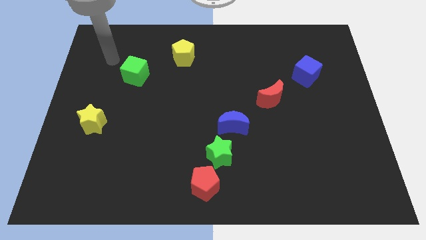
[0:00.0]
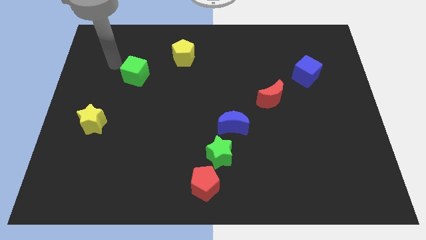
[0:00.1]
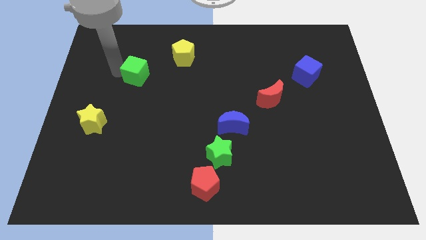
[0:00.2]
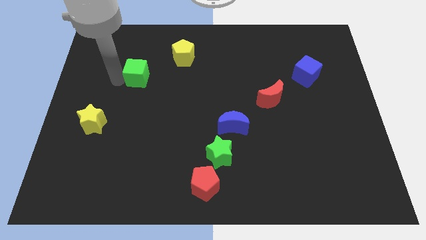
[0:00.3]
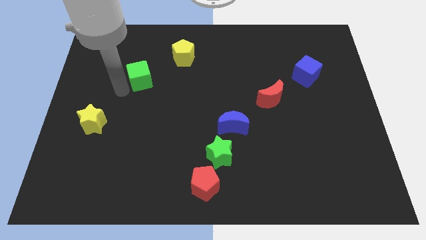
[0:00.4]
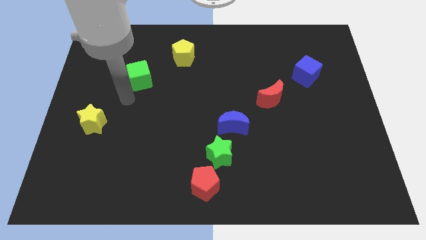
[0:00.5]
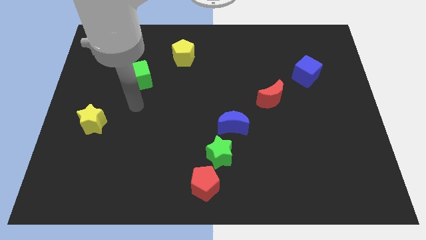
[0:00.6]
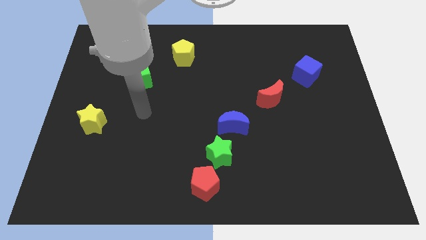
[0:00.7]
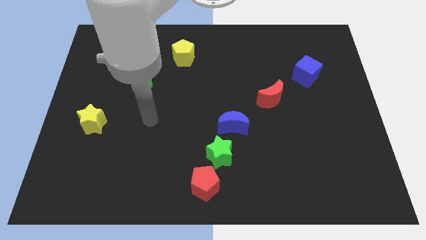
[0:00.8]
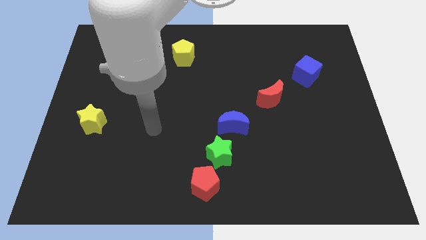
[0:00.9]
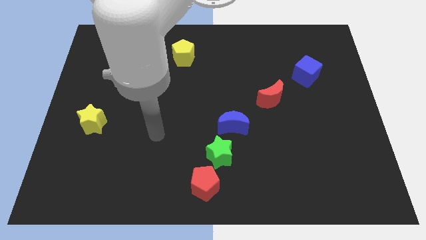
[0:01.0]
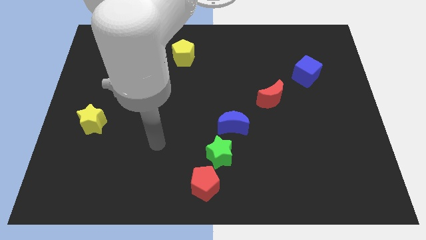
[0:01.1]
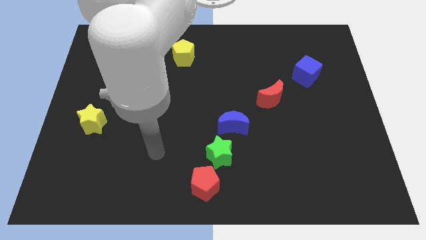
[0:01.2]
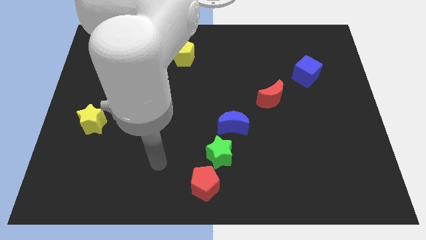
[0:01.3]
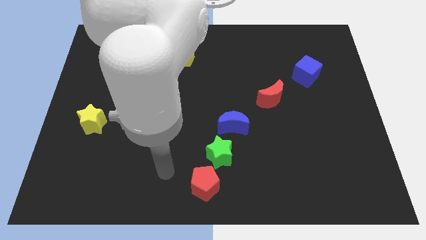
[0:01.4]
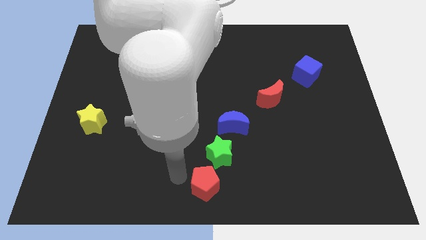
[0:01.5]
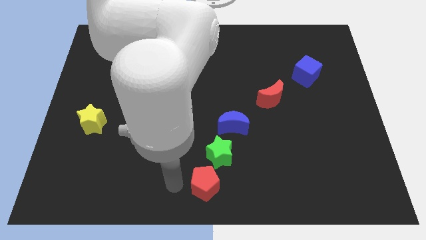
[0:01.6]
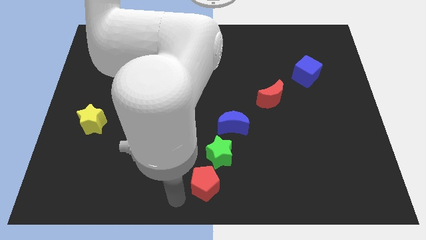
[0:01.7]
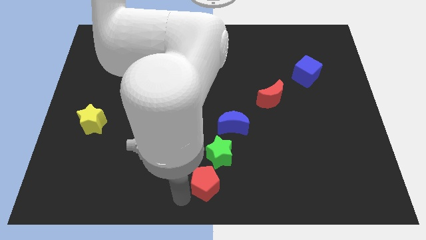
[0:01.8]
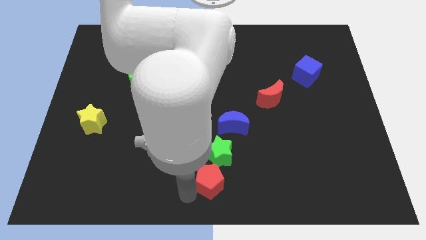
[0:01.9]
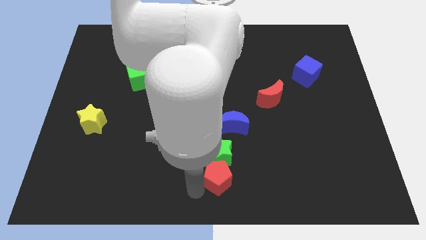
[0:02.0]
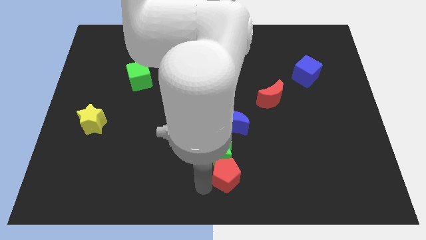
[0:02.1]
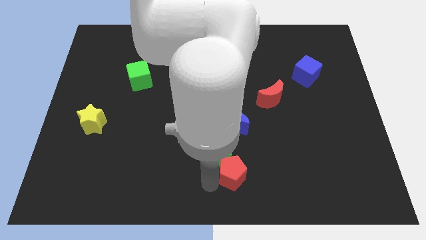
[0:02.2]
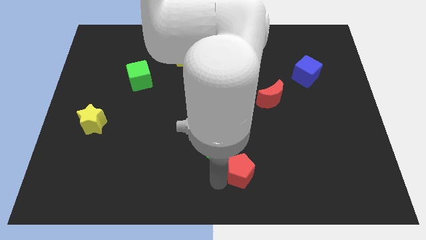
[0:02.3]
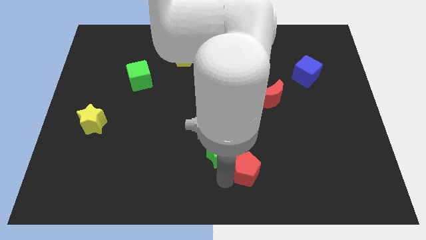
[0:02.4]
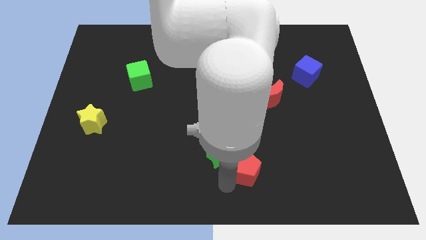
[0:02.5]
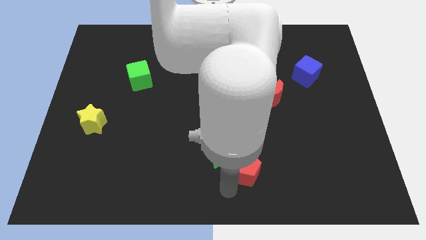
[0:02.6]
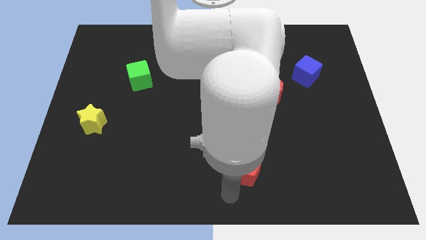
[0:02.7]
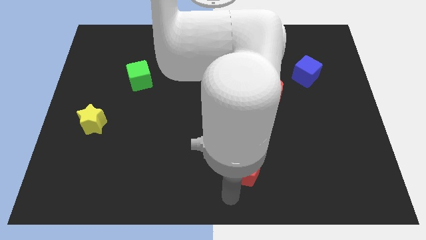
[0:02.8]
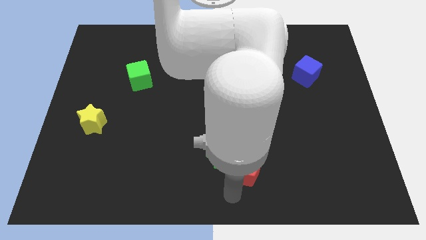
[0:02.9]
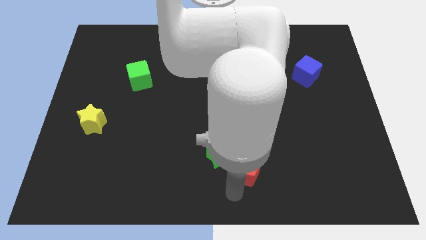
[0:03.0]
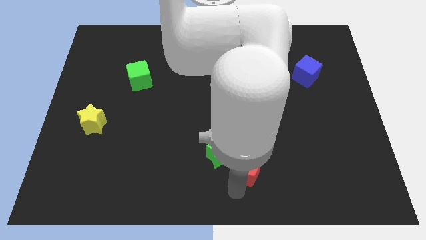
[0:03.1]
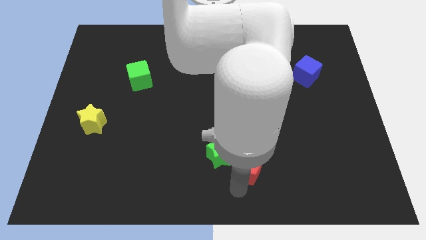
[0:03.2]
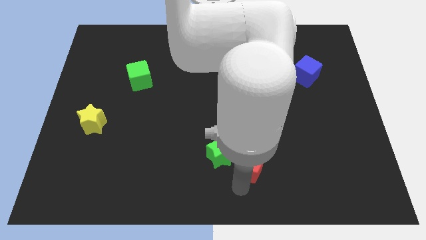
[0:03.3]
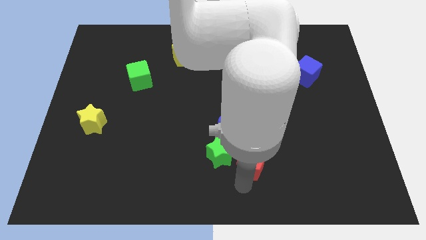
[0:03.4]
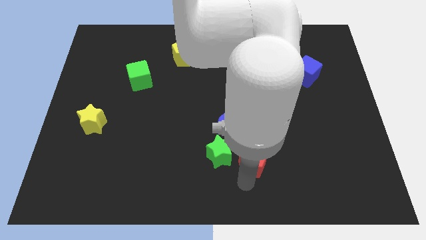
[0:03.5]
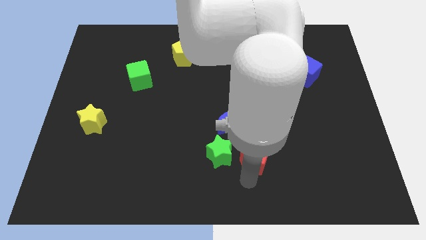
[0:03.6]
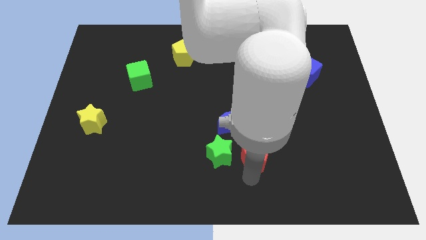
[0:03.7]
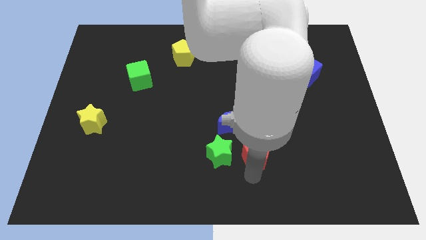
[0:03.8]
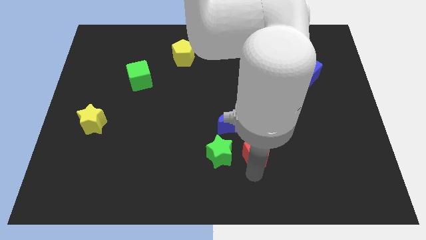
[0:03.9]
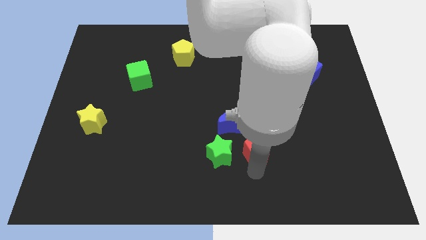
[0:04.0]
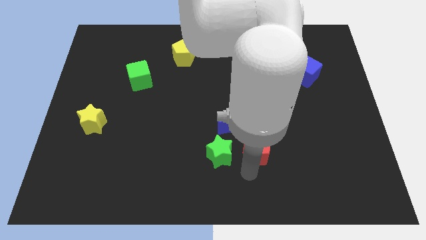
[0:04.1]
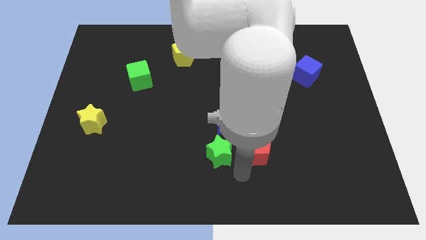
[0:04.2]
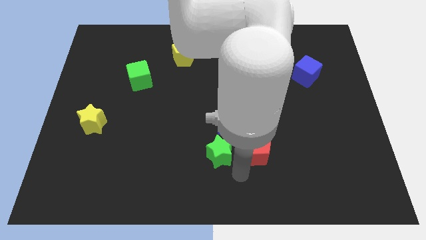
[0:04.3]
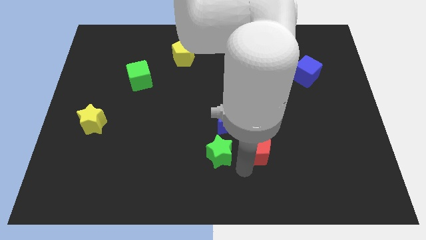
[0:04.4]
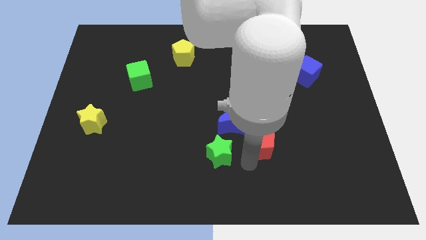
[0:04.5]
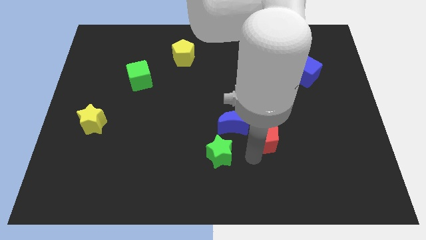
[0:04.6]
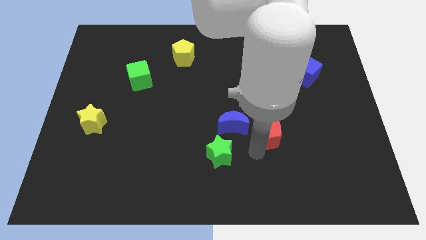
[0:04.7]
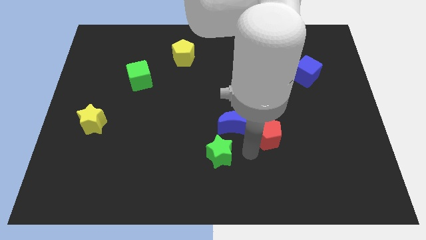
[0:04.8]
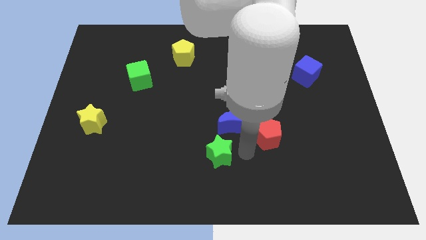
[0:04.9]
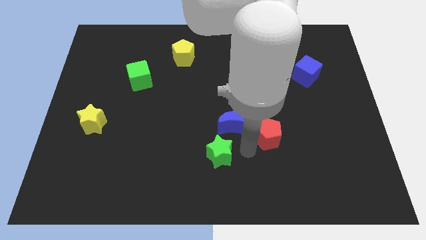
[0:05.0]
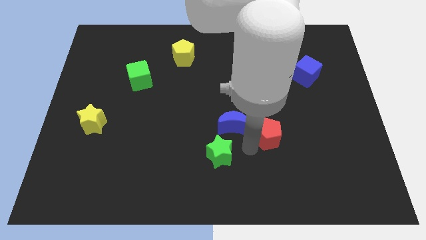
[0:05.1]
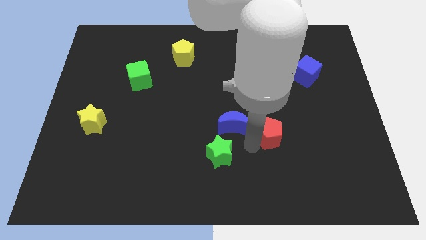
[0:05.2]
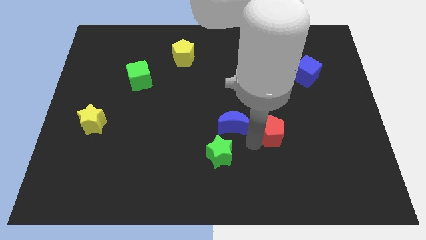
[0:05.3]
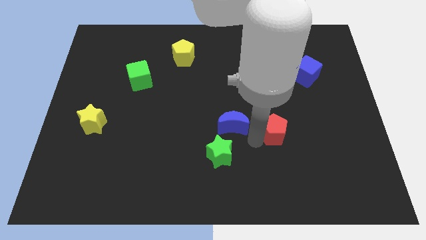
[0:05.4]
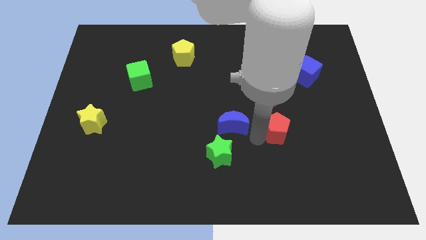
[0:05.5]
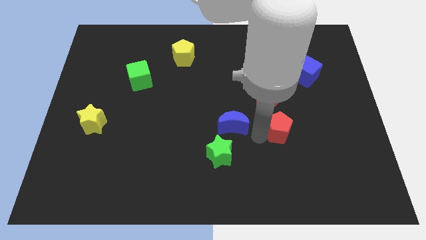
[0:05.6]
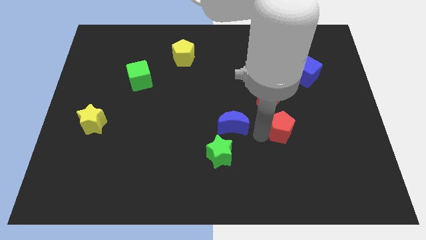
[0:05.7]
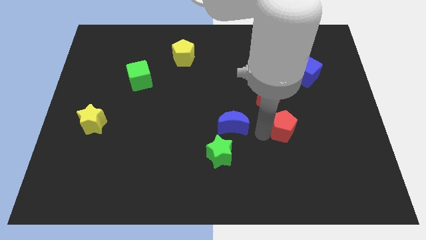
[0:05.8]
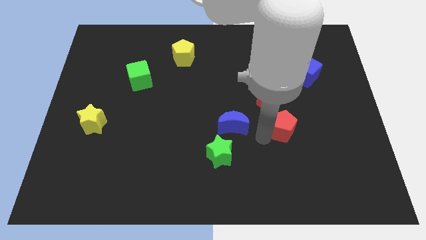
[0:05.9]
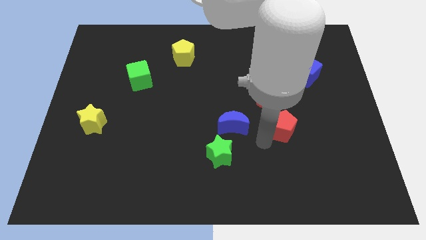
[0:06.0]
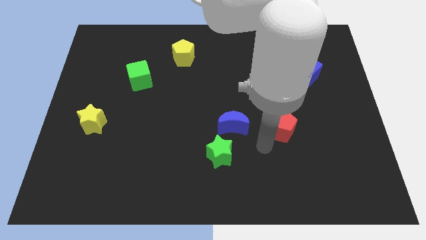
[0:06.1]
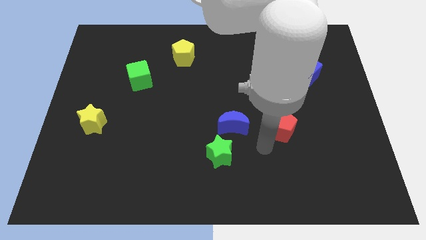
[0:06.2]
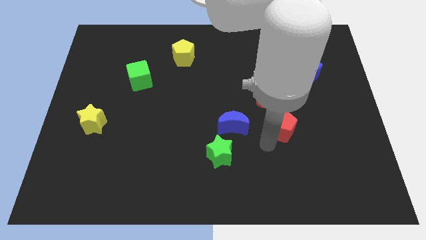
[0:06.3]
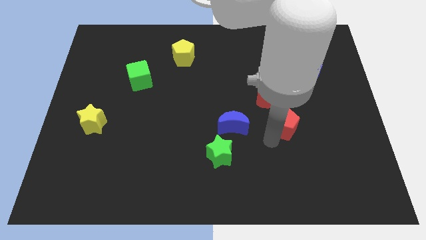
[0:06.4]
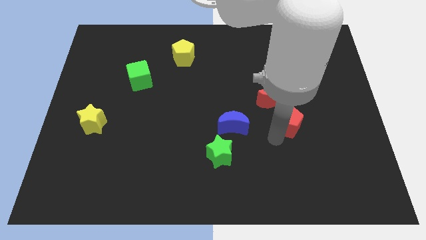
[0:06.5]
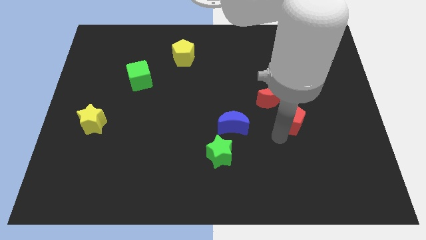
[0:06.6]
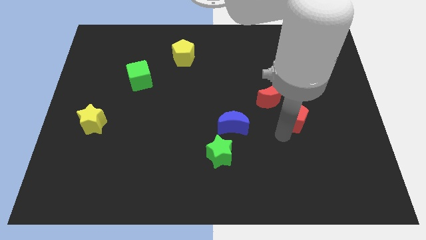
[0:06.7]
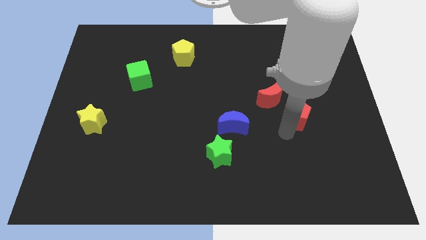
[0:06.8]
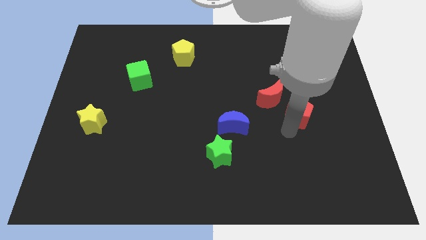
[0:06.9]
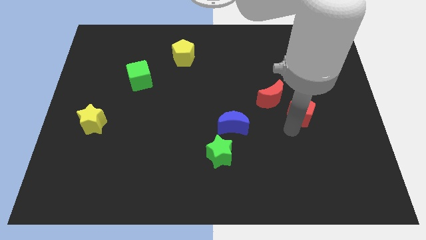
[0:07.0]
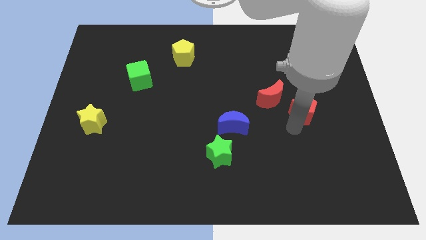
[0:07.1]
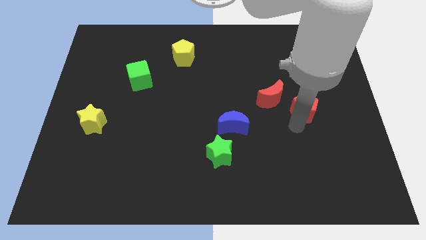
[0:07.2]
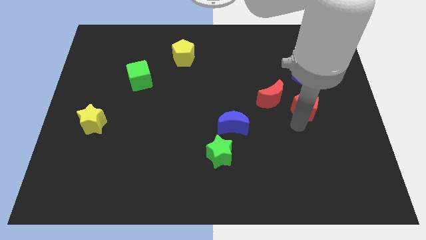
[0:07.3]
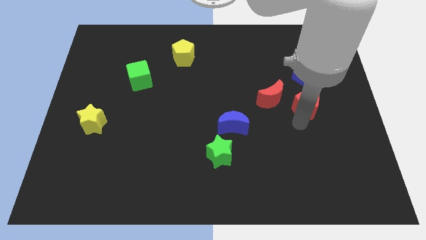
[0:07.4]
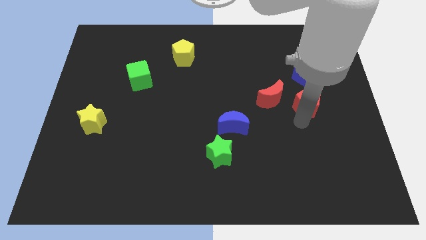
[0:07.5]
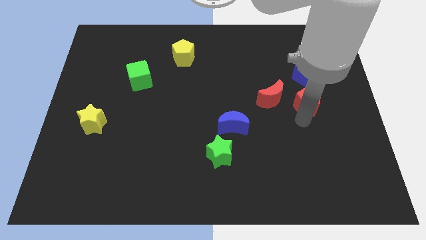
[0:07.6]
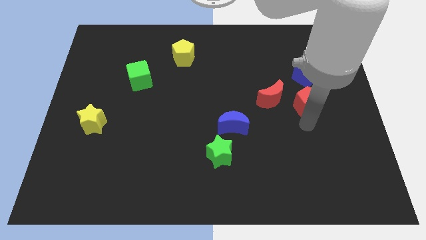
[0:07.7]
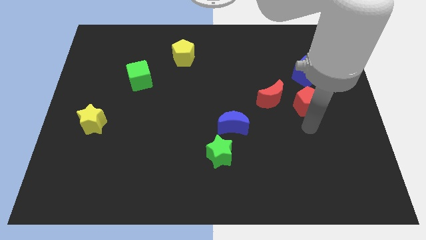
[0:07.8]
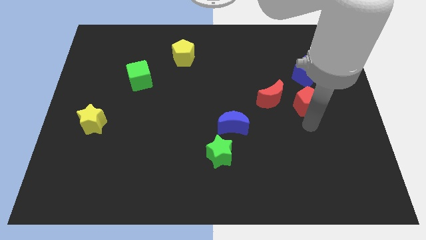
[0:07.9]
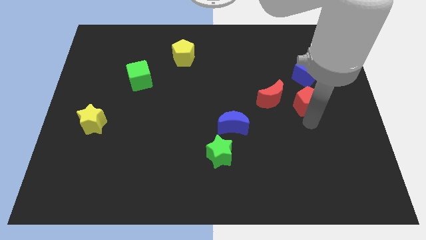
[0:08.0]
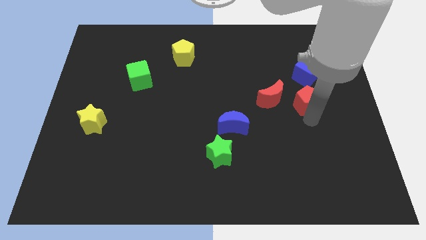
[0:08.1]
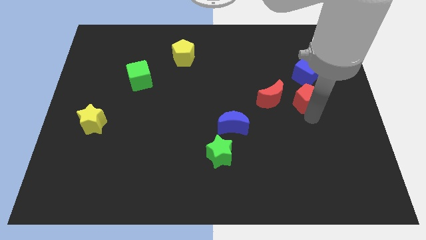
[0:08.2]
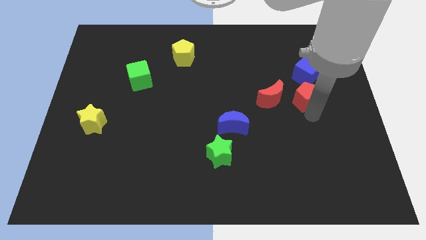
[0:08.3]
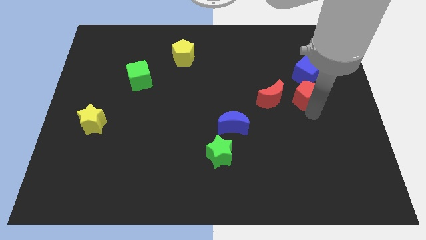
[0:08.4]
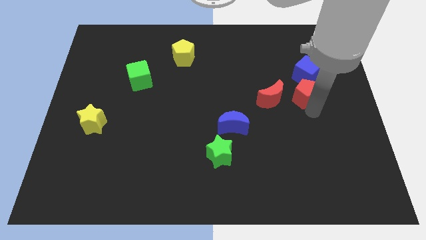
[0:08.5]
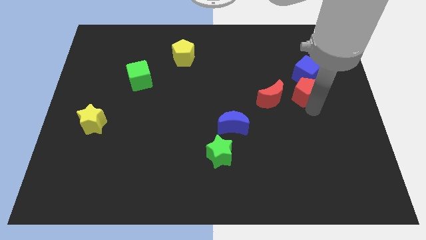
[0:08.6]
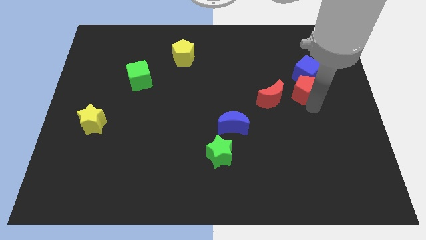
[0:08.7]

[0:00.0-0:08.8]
move the red pentagon towards the blue cube
